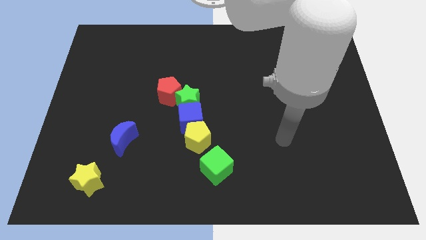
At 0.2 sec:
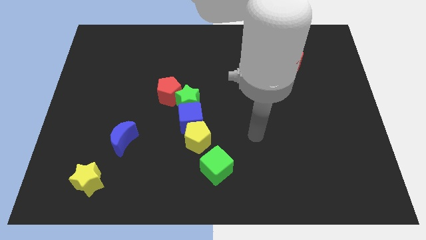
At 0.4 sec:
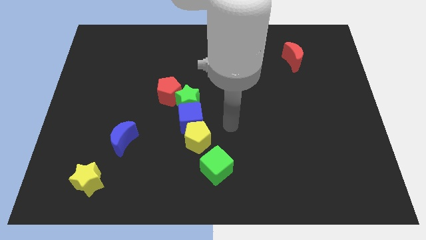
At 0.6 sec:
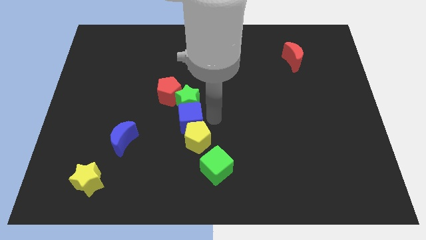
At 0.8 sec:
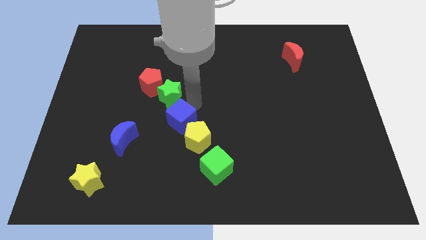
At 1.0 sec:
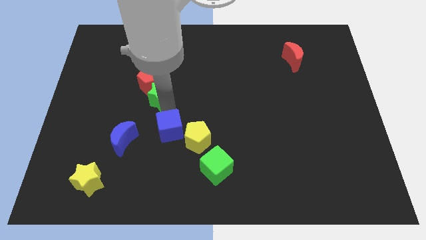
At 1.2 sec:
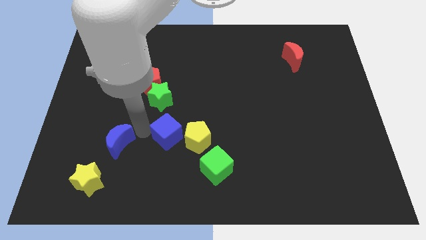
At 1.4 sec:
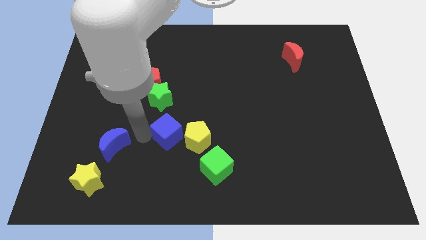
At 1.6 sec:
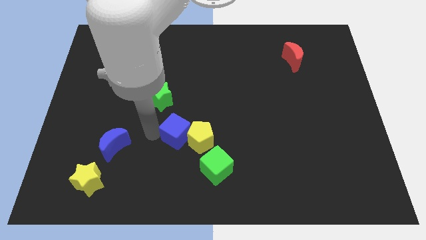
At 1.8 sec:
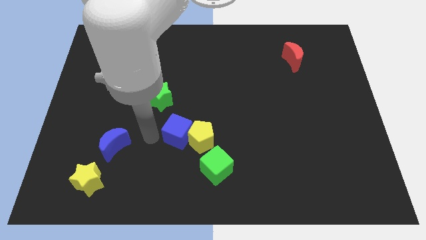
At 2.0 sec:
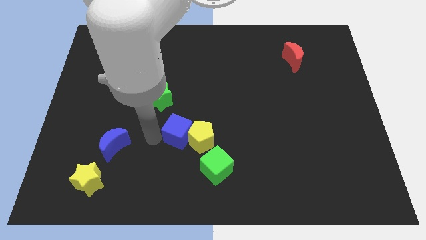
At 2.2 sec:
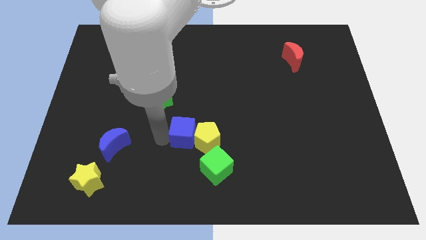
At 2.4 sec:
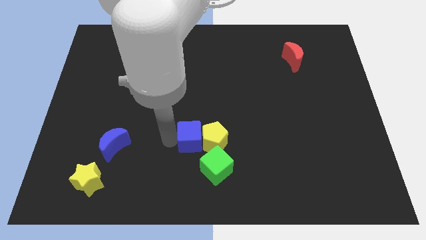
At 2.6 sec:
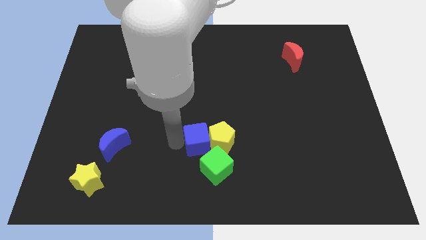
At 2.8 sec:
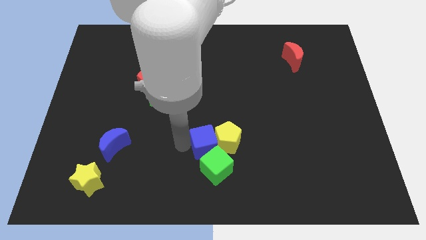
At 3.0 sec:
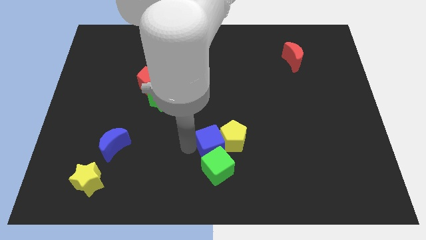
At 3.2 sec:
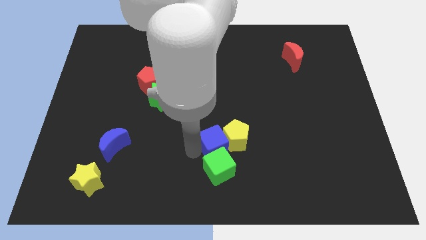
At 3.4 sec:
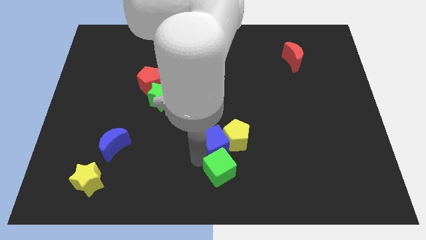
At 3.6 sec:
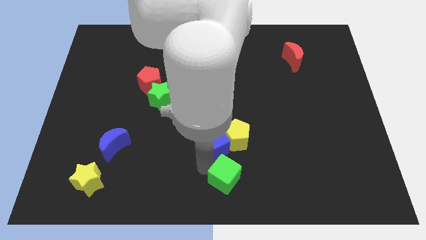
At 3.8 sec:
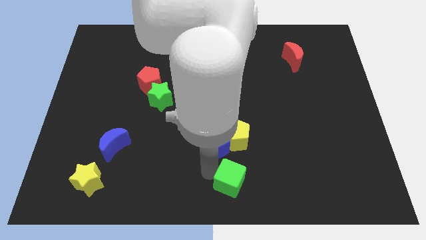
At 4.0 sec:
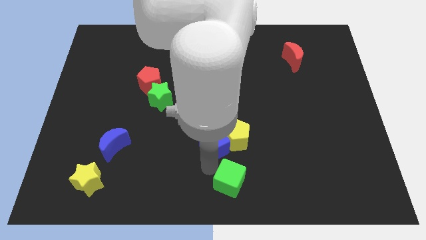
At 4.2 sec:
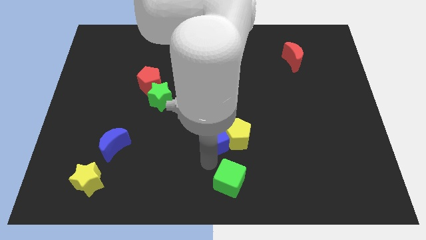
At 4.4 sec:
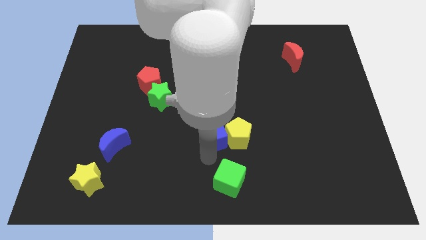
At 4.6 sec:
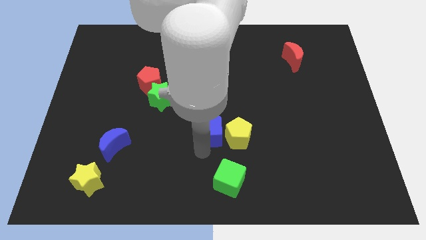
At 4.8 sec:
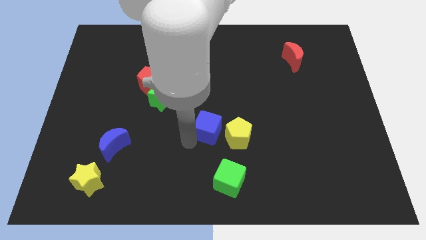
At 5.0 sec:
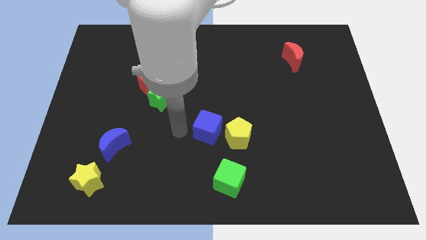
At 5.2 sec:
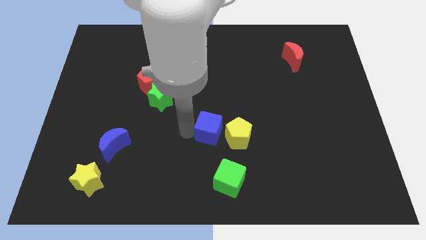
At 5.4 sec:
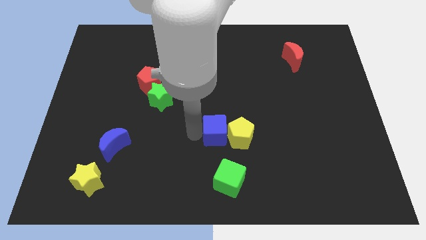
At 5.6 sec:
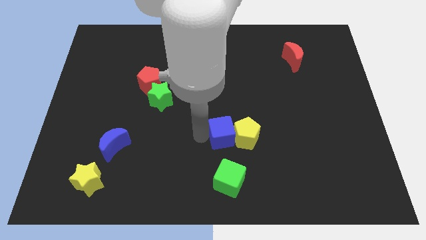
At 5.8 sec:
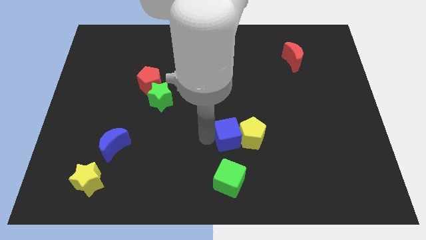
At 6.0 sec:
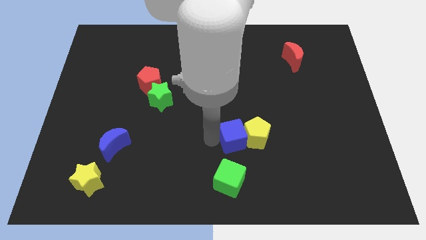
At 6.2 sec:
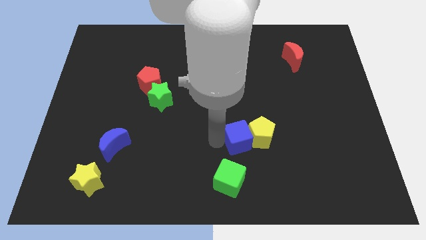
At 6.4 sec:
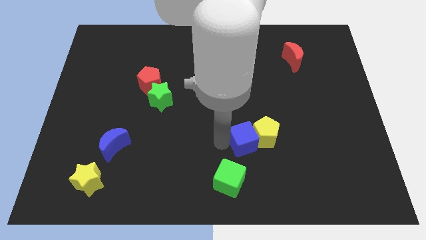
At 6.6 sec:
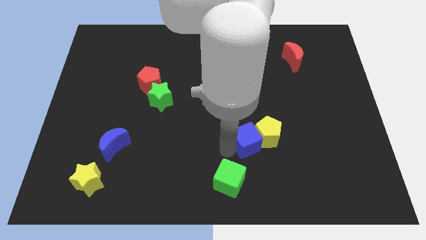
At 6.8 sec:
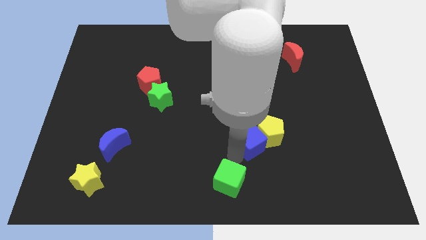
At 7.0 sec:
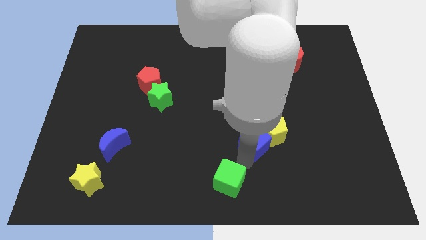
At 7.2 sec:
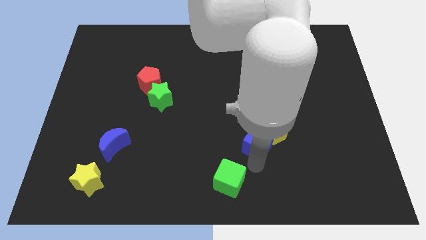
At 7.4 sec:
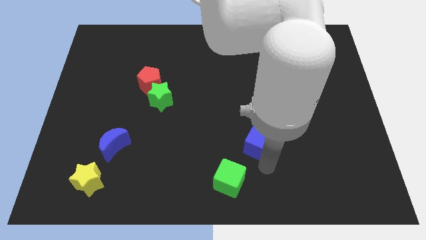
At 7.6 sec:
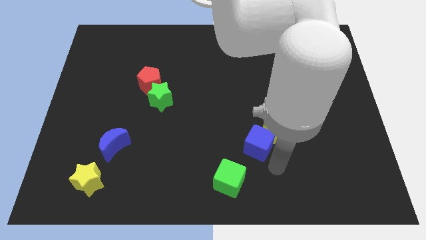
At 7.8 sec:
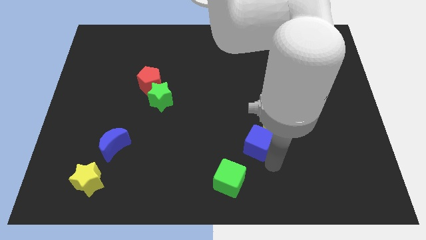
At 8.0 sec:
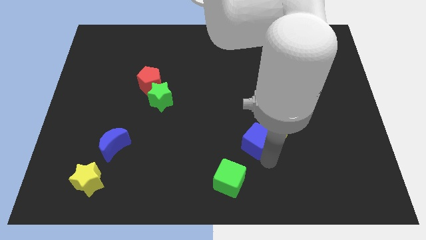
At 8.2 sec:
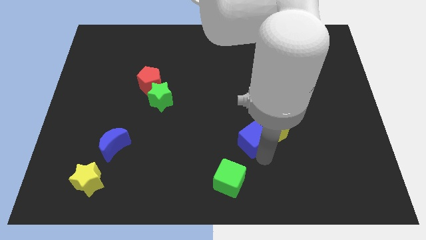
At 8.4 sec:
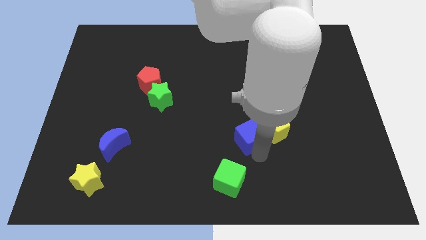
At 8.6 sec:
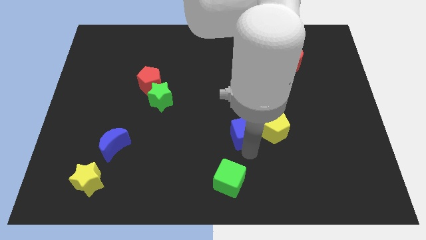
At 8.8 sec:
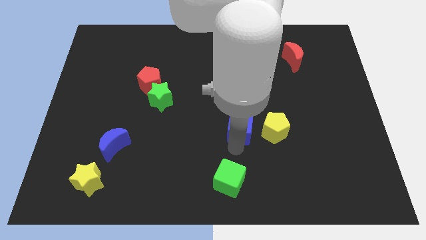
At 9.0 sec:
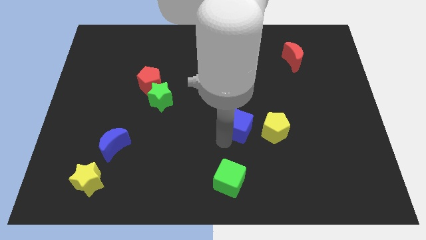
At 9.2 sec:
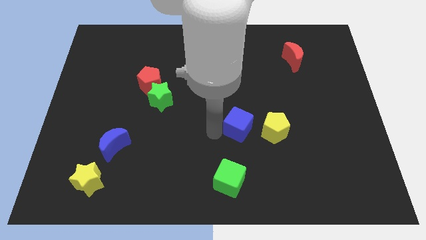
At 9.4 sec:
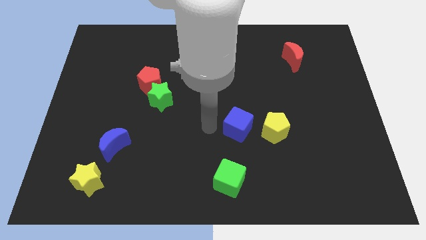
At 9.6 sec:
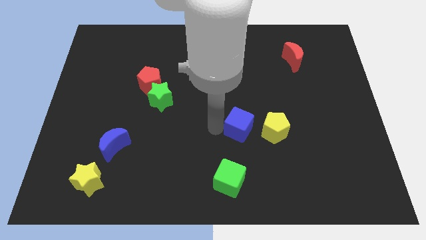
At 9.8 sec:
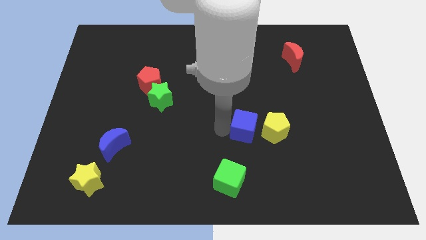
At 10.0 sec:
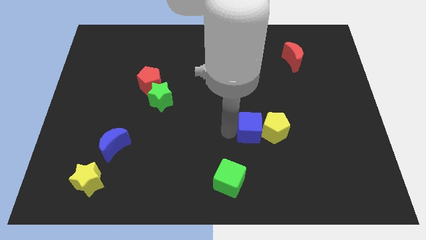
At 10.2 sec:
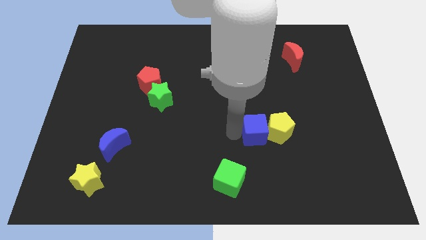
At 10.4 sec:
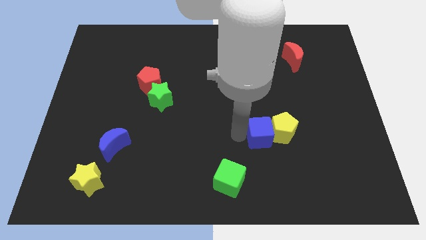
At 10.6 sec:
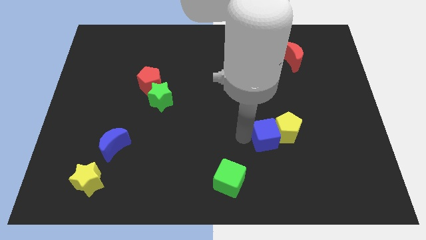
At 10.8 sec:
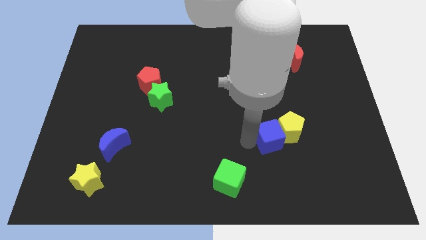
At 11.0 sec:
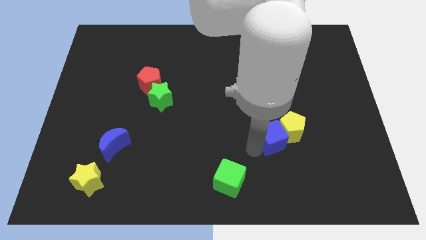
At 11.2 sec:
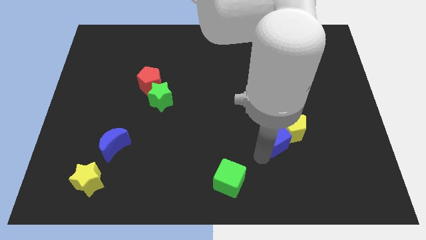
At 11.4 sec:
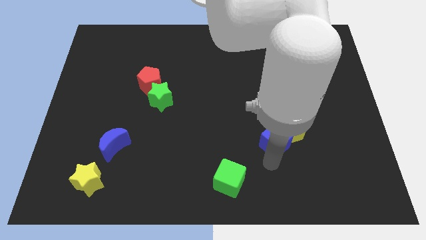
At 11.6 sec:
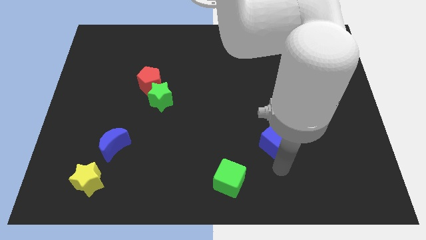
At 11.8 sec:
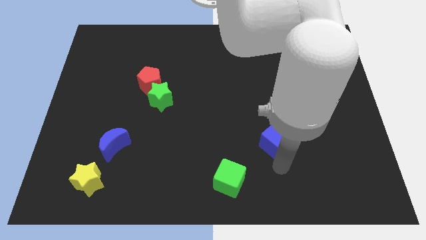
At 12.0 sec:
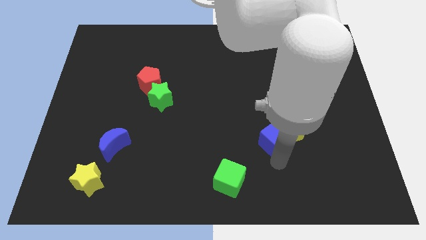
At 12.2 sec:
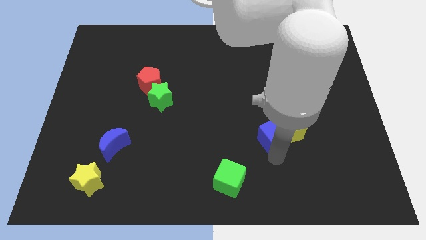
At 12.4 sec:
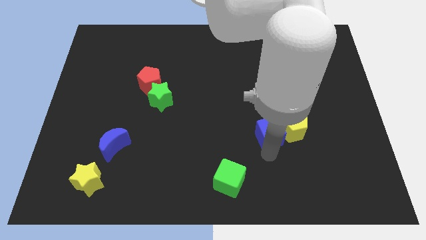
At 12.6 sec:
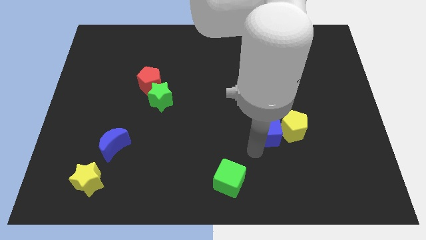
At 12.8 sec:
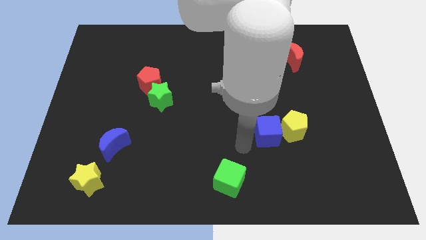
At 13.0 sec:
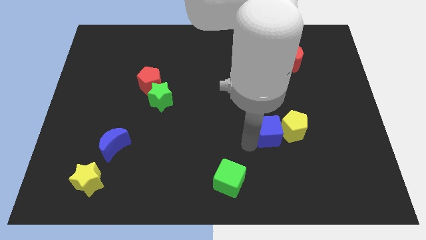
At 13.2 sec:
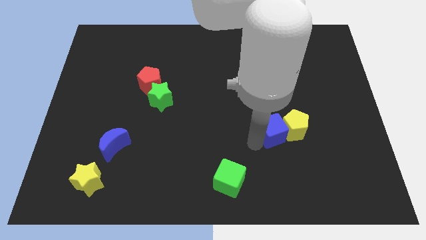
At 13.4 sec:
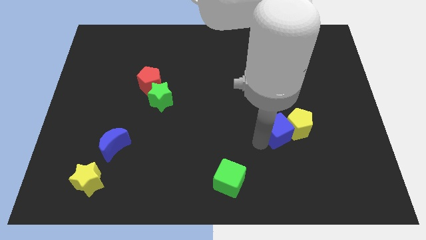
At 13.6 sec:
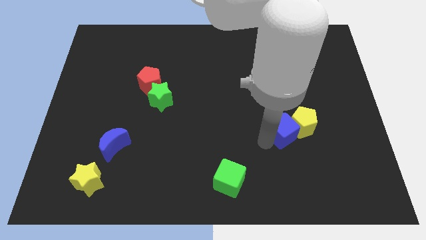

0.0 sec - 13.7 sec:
move the blue cube right

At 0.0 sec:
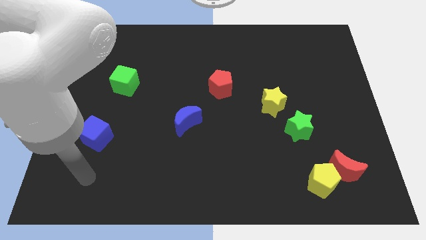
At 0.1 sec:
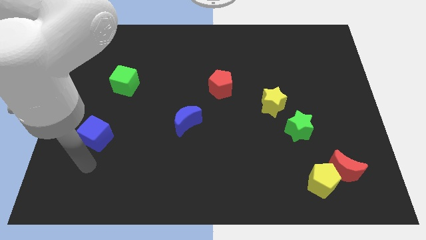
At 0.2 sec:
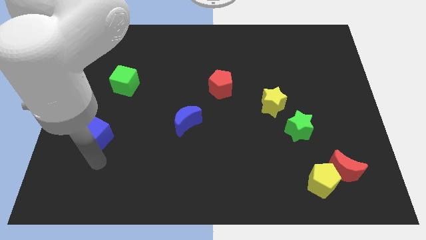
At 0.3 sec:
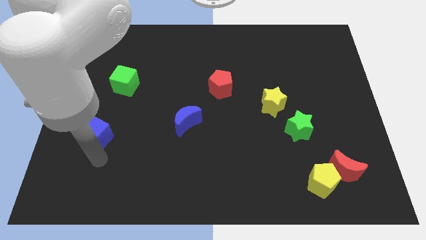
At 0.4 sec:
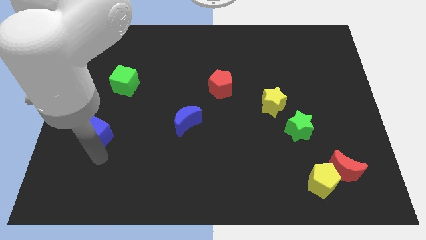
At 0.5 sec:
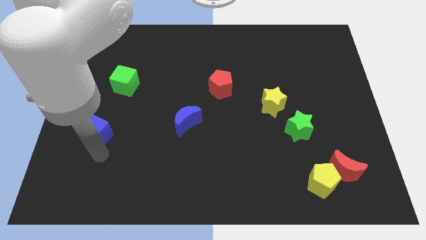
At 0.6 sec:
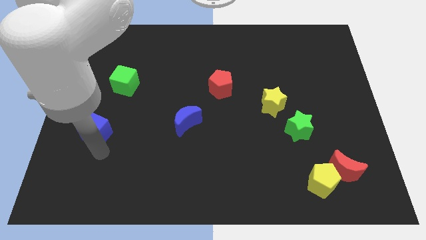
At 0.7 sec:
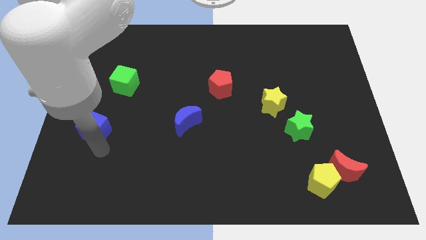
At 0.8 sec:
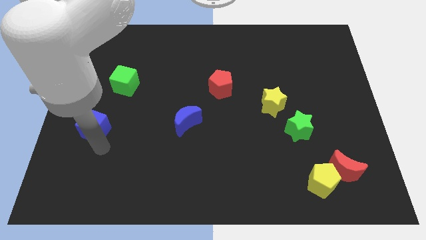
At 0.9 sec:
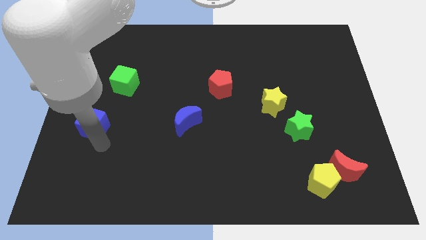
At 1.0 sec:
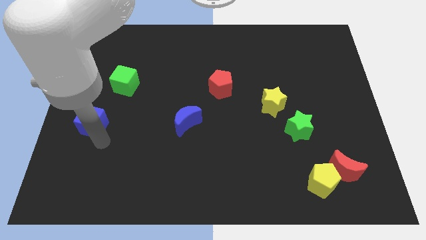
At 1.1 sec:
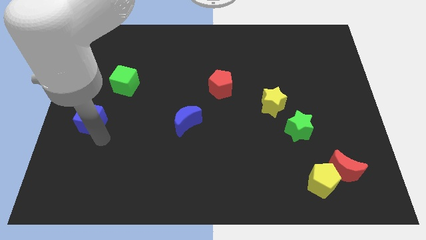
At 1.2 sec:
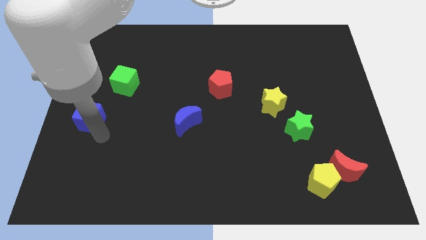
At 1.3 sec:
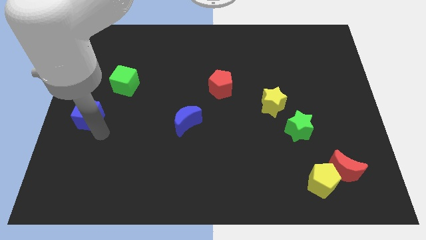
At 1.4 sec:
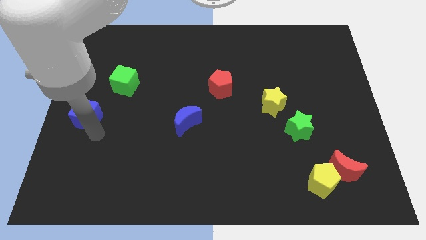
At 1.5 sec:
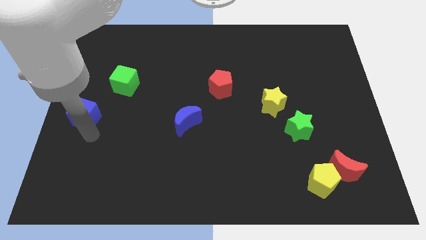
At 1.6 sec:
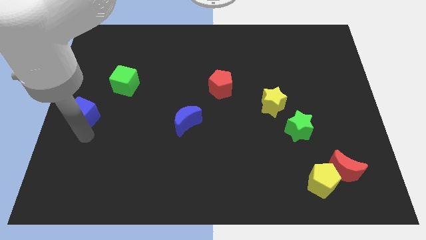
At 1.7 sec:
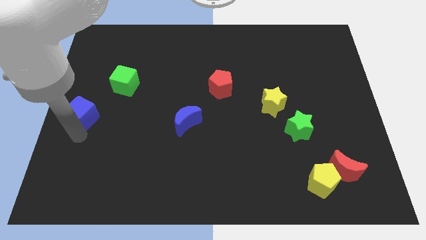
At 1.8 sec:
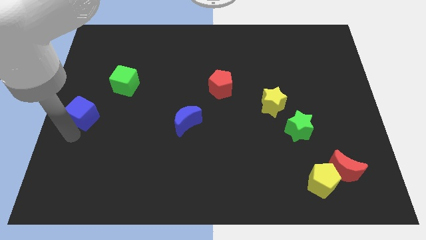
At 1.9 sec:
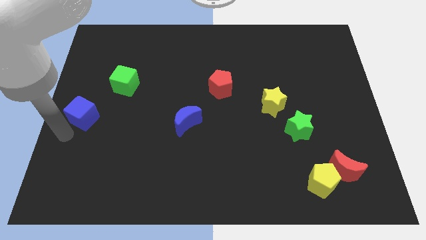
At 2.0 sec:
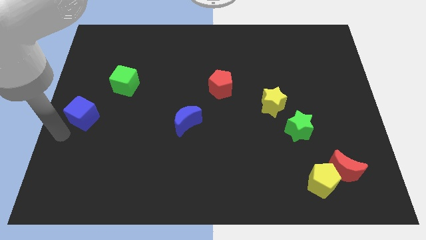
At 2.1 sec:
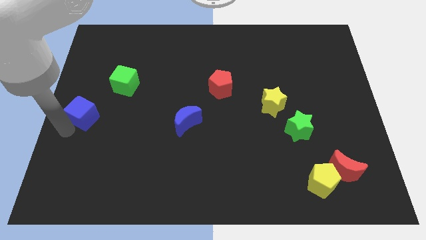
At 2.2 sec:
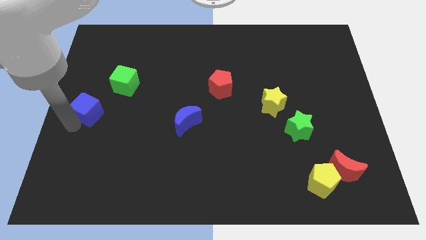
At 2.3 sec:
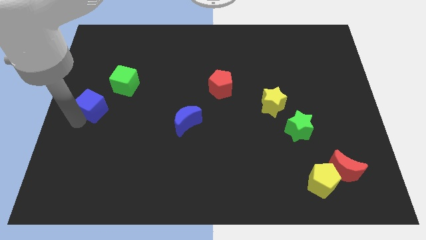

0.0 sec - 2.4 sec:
move the blue cube upwards a little bit
